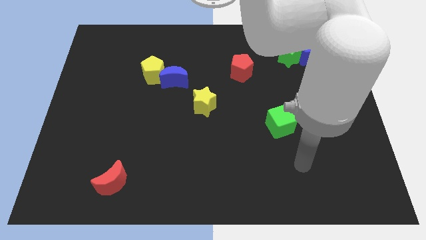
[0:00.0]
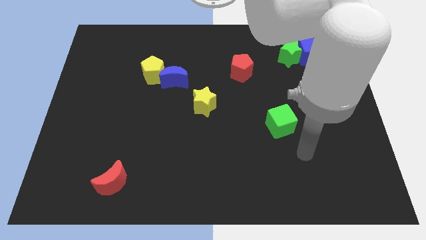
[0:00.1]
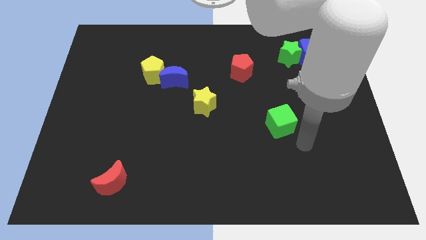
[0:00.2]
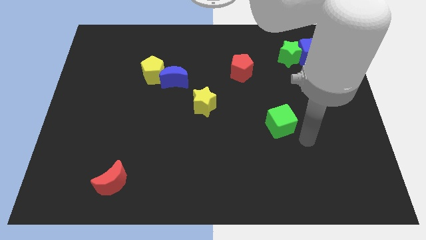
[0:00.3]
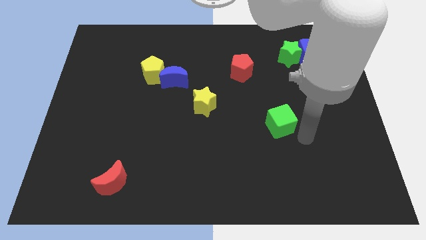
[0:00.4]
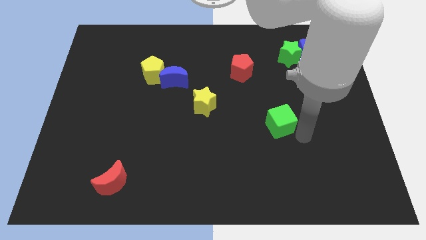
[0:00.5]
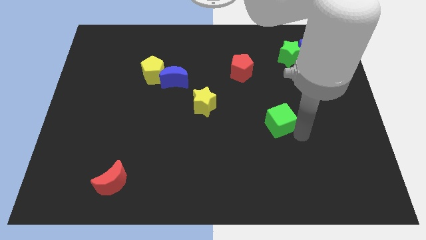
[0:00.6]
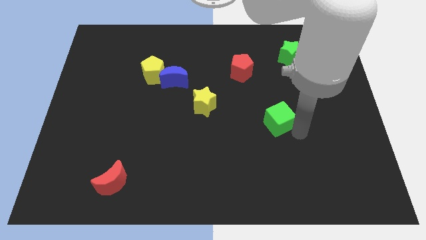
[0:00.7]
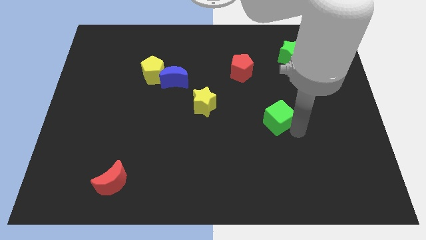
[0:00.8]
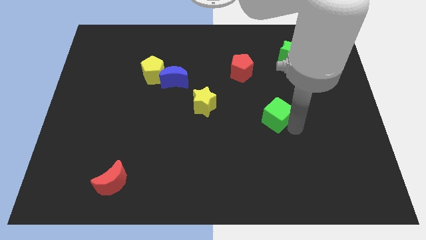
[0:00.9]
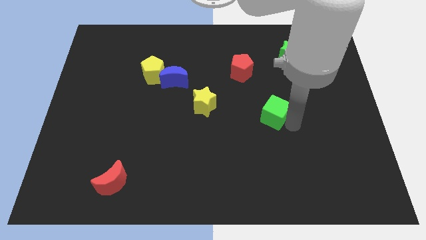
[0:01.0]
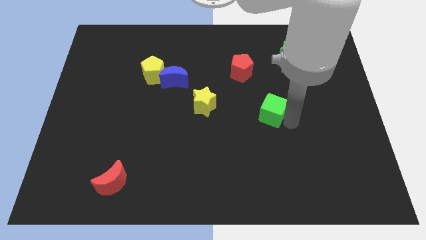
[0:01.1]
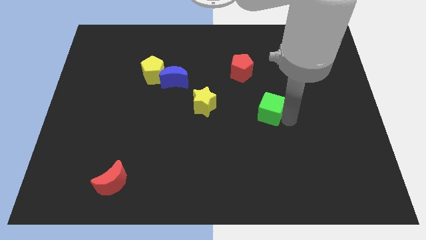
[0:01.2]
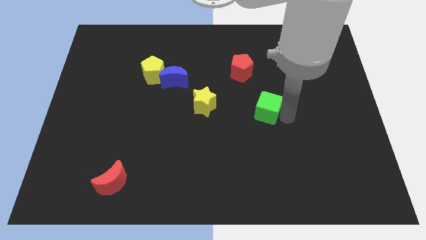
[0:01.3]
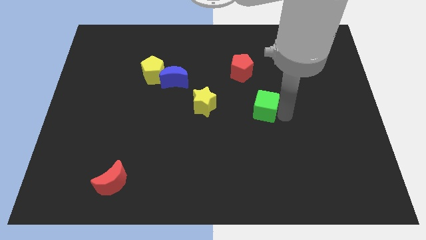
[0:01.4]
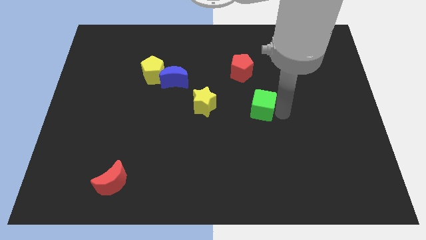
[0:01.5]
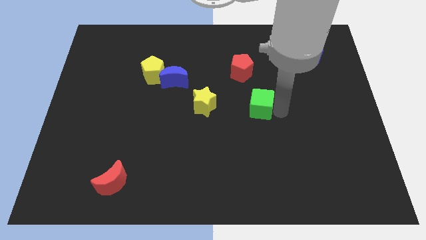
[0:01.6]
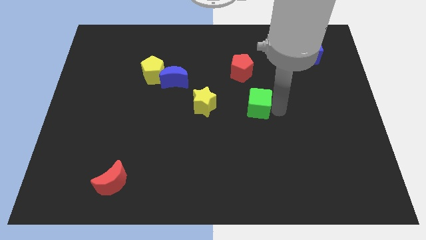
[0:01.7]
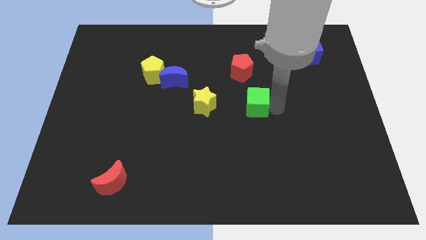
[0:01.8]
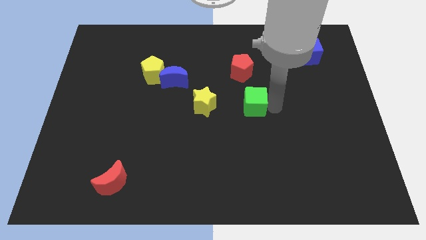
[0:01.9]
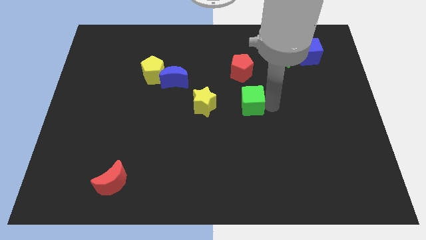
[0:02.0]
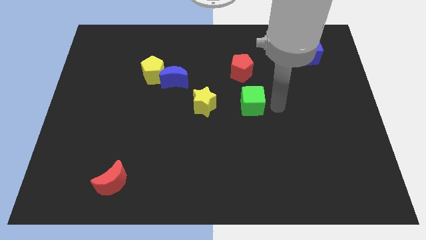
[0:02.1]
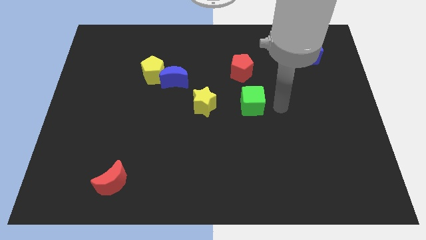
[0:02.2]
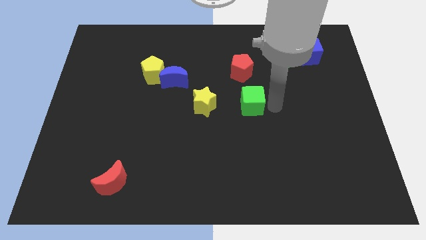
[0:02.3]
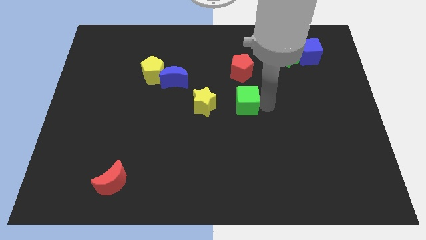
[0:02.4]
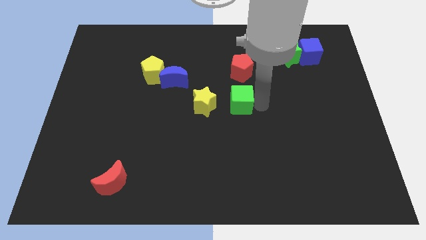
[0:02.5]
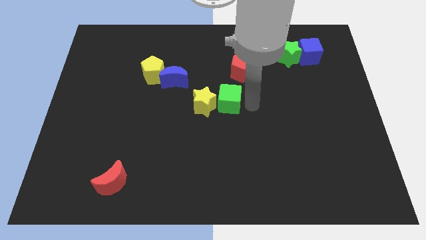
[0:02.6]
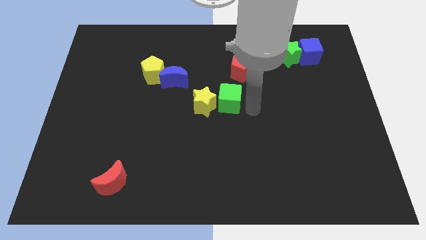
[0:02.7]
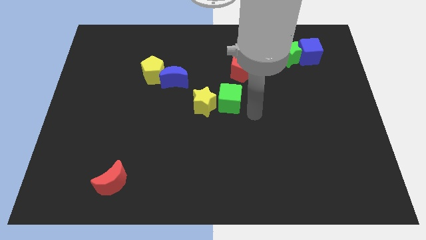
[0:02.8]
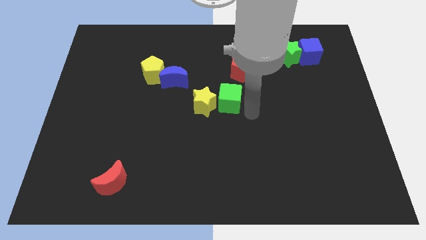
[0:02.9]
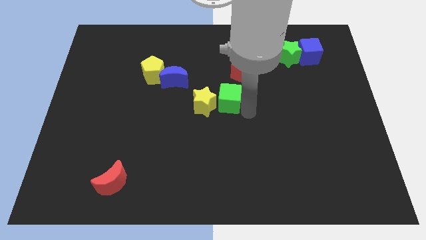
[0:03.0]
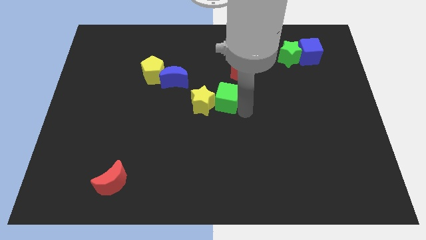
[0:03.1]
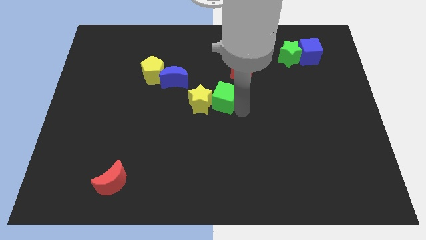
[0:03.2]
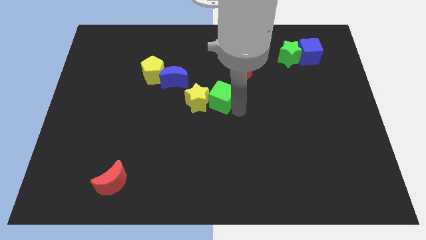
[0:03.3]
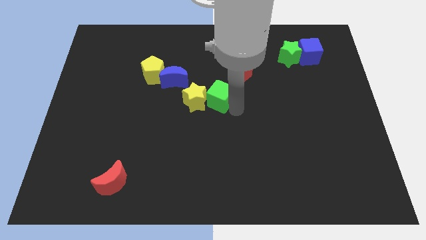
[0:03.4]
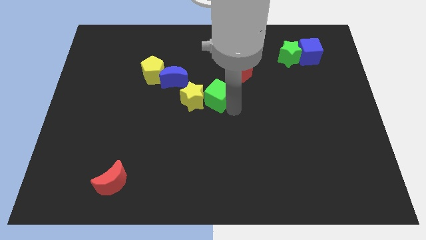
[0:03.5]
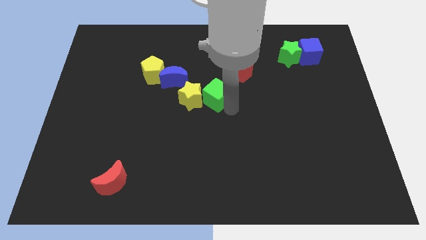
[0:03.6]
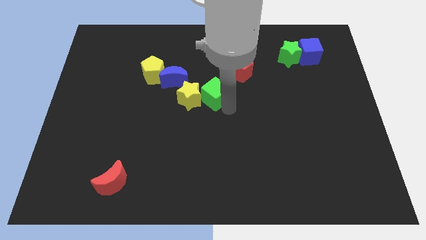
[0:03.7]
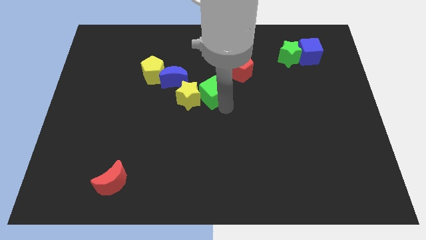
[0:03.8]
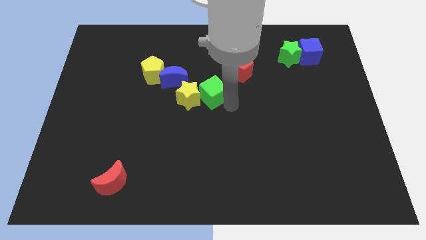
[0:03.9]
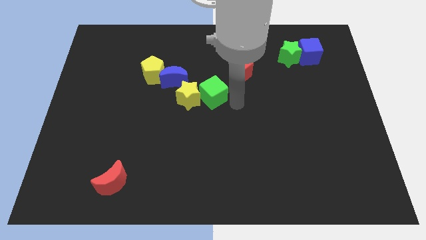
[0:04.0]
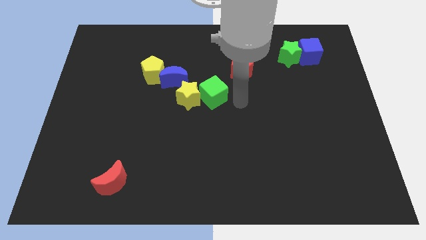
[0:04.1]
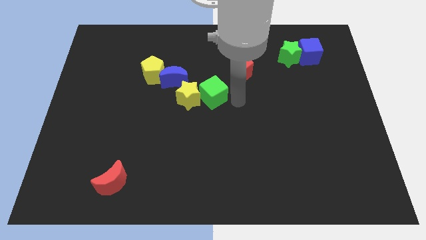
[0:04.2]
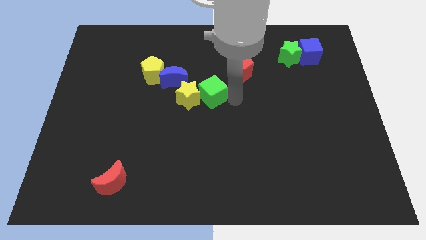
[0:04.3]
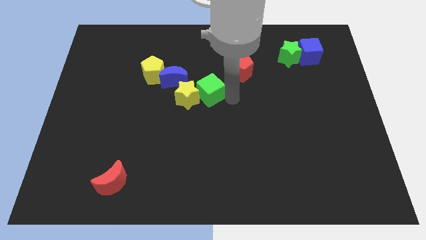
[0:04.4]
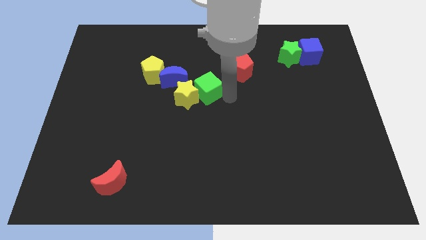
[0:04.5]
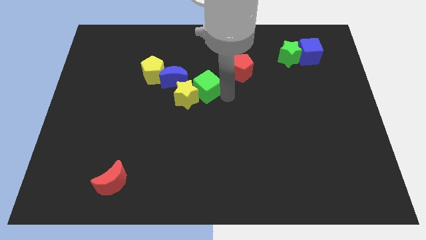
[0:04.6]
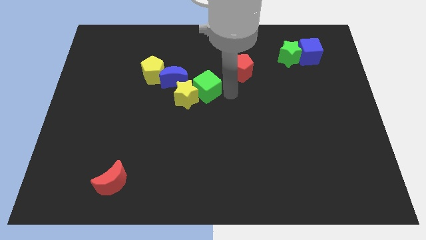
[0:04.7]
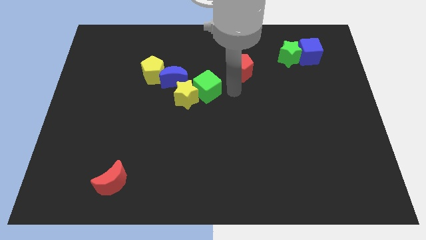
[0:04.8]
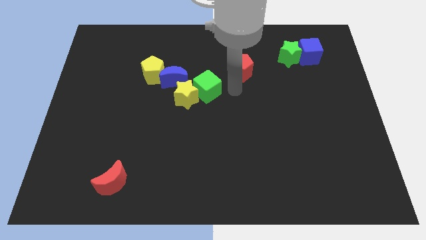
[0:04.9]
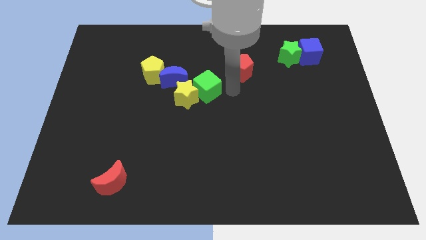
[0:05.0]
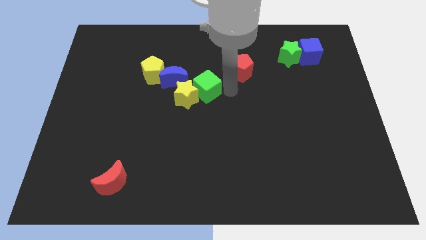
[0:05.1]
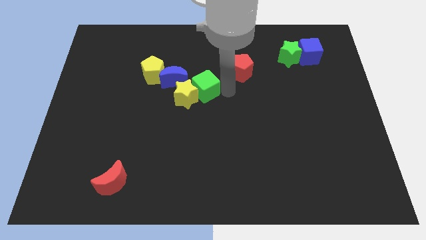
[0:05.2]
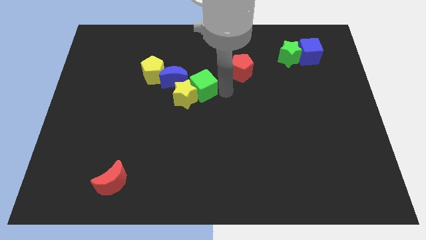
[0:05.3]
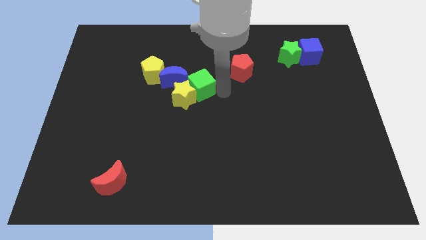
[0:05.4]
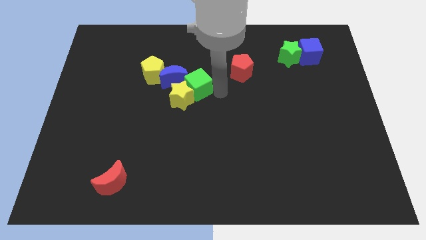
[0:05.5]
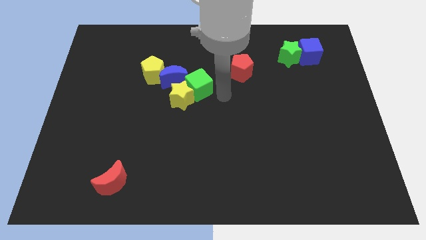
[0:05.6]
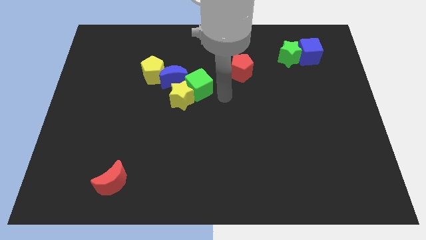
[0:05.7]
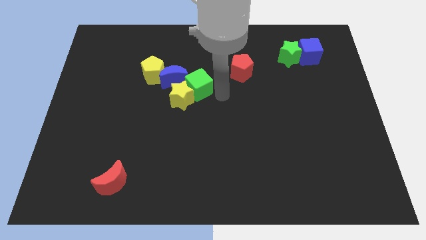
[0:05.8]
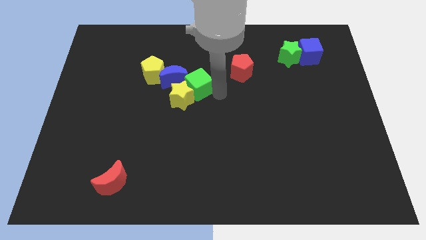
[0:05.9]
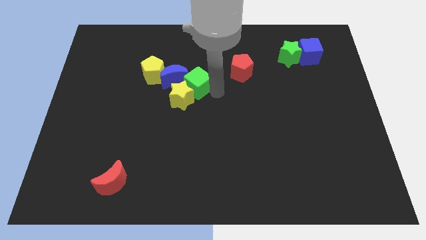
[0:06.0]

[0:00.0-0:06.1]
slide the green cube towards the blue moon

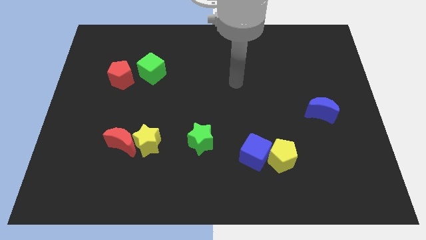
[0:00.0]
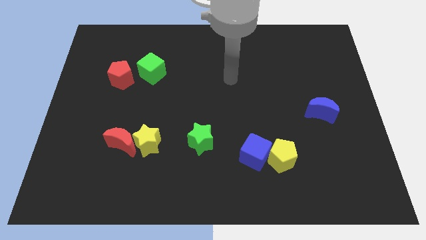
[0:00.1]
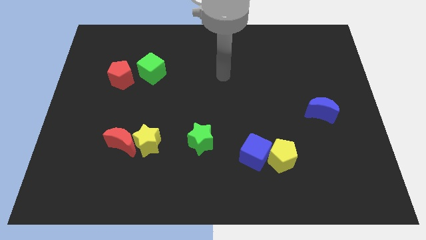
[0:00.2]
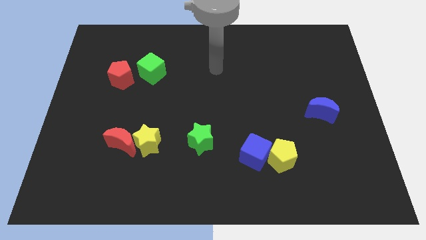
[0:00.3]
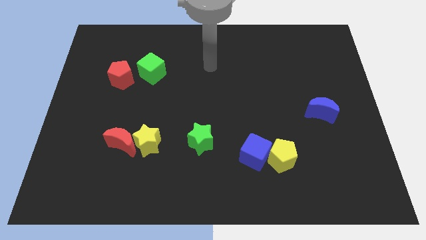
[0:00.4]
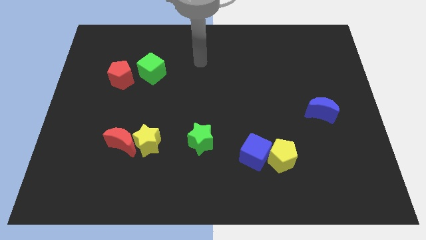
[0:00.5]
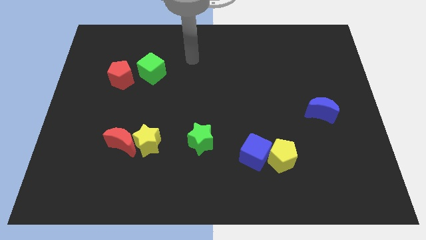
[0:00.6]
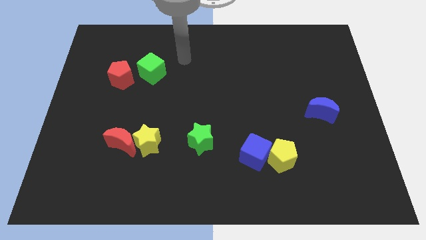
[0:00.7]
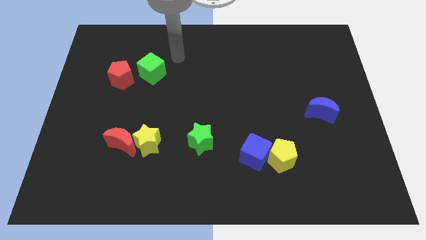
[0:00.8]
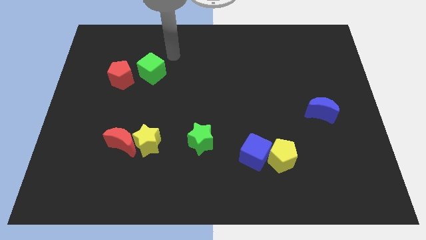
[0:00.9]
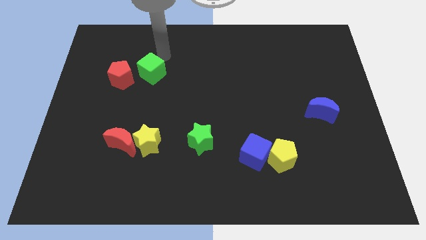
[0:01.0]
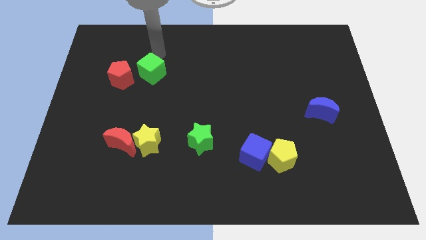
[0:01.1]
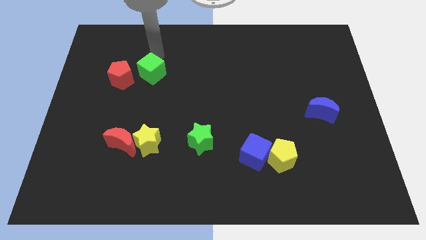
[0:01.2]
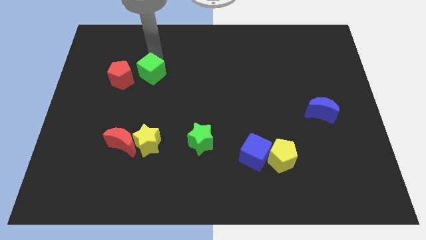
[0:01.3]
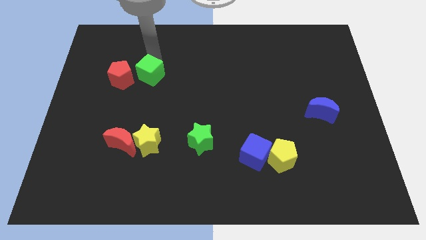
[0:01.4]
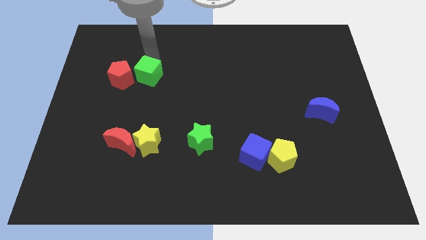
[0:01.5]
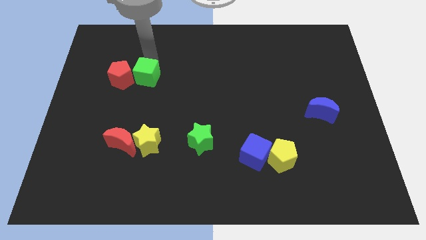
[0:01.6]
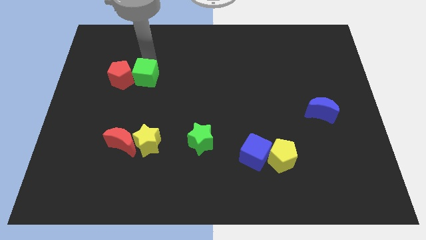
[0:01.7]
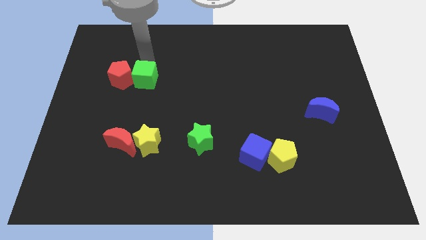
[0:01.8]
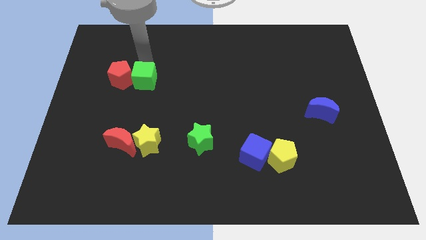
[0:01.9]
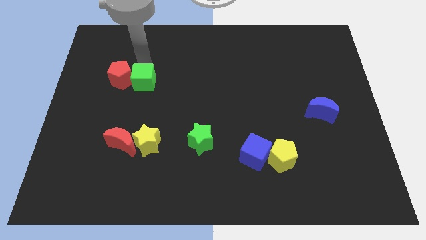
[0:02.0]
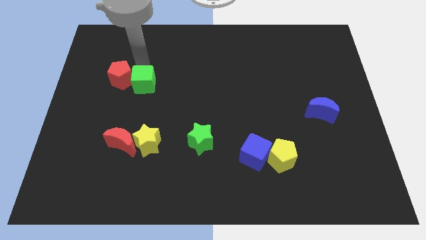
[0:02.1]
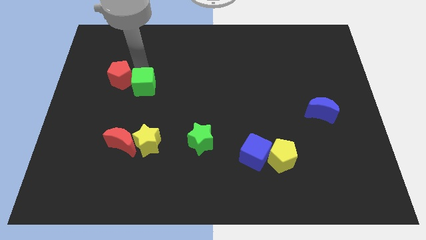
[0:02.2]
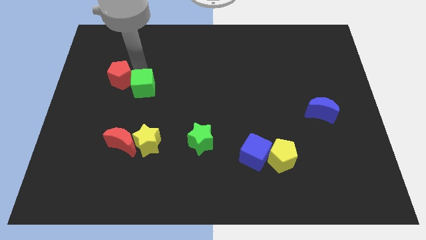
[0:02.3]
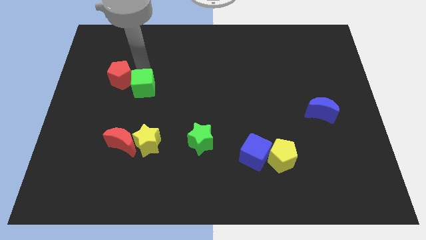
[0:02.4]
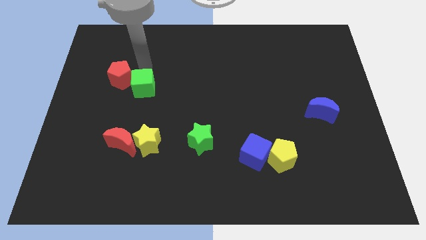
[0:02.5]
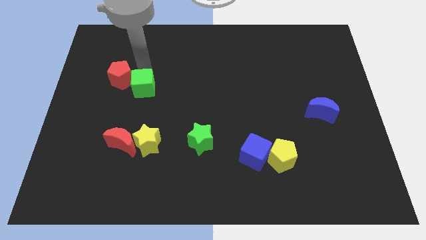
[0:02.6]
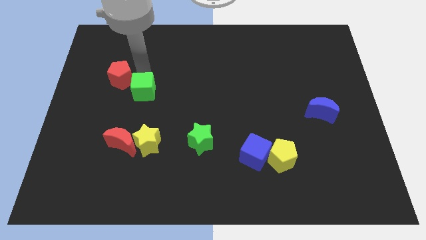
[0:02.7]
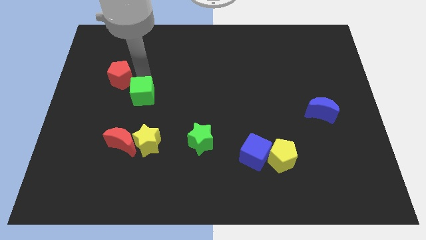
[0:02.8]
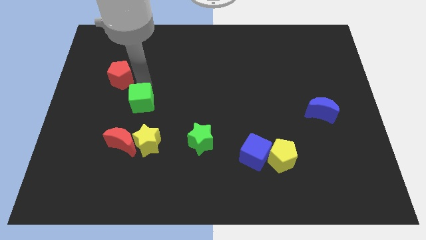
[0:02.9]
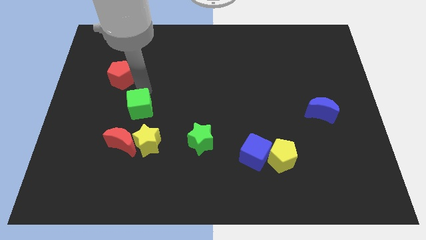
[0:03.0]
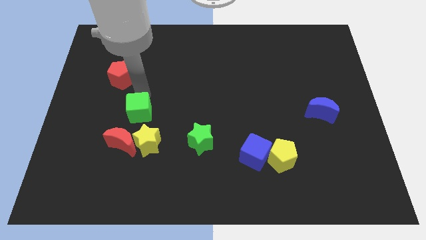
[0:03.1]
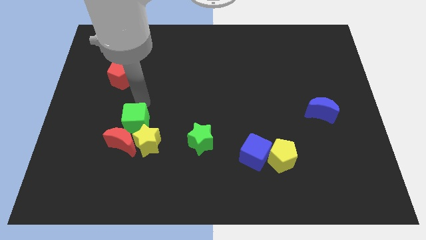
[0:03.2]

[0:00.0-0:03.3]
slide the green cube to the red moon
